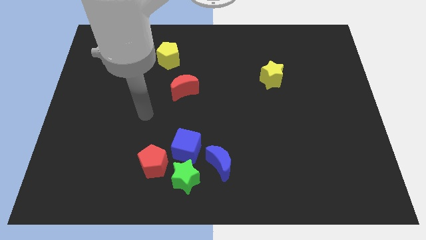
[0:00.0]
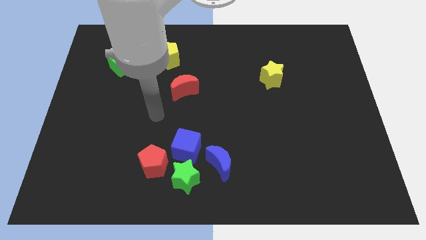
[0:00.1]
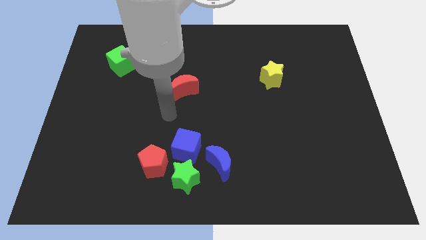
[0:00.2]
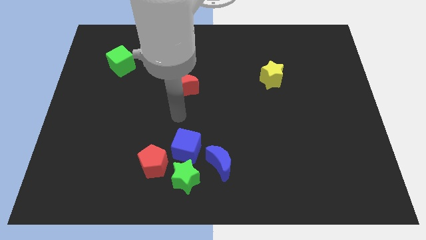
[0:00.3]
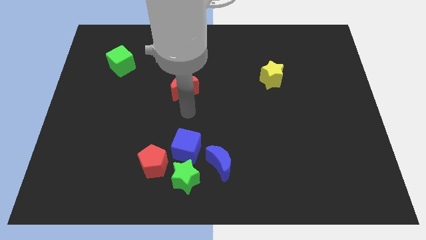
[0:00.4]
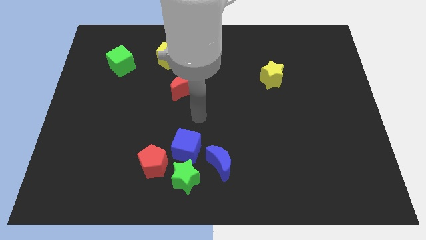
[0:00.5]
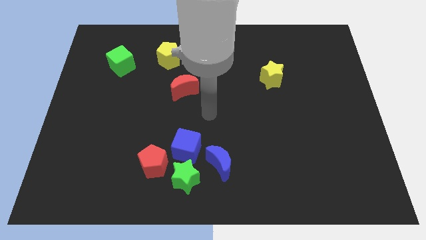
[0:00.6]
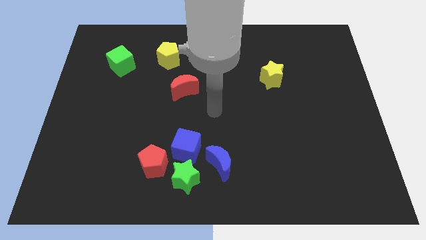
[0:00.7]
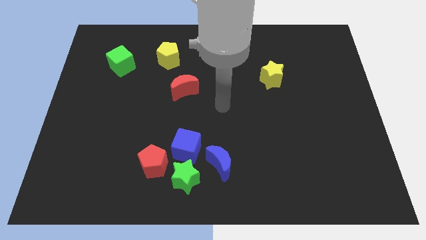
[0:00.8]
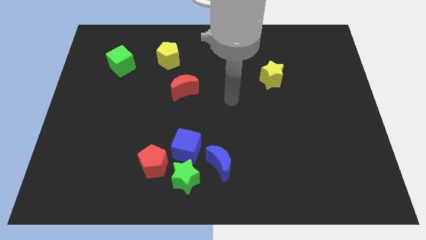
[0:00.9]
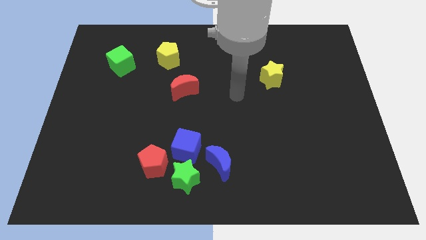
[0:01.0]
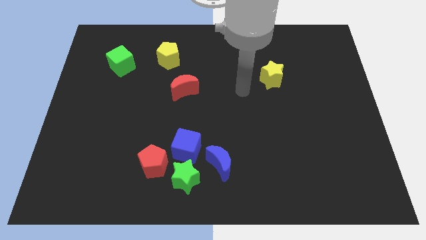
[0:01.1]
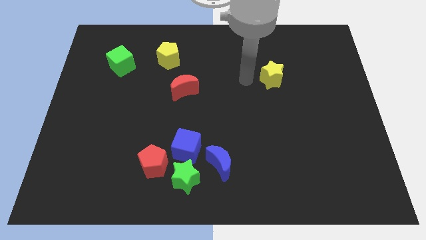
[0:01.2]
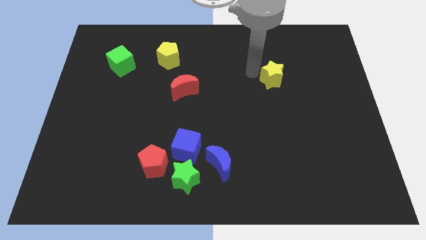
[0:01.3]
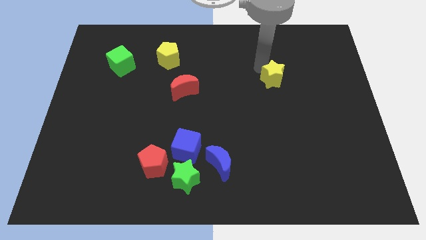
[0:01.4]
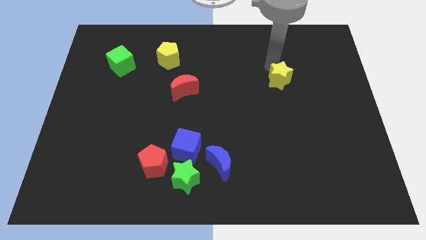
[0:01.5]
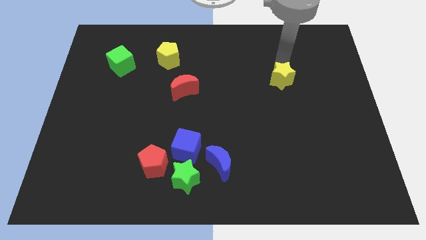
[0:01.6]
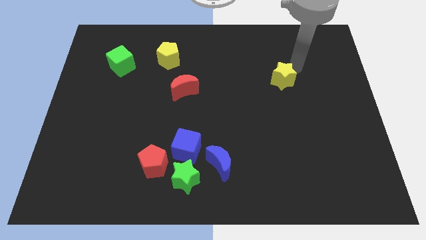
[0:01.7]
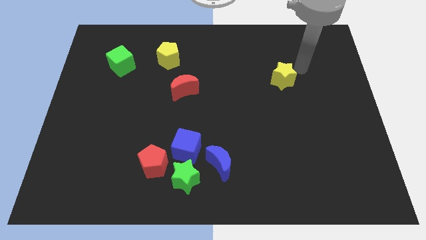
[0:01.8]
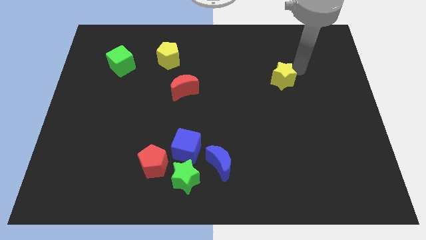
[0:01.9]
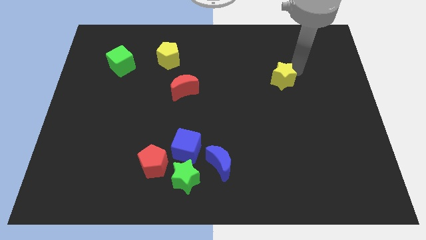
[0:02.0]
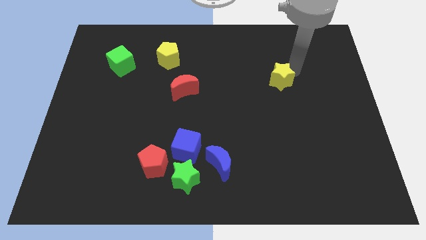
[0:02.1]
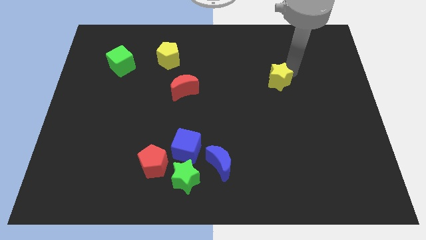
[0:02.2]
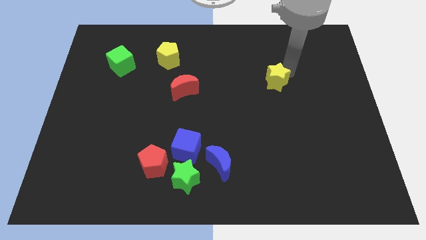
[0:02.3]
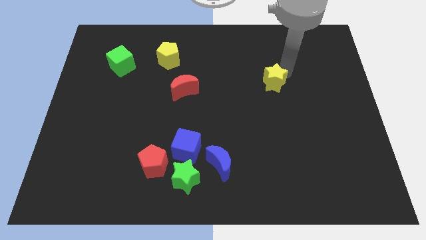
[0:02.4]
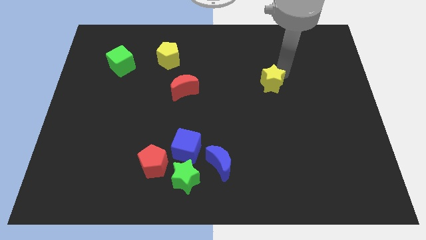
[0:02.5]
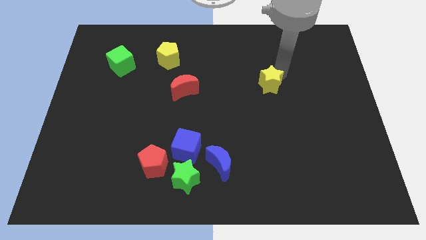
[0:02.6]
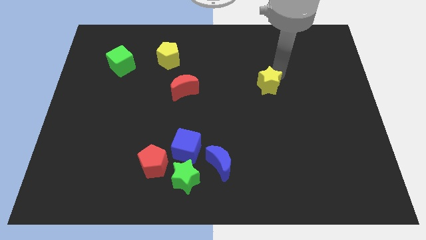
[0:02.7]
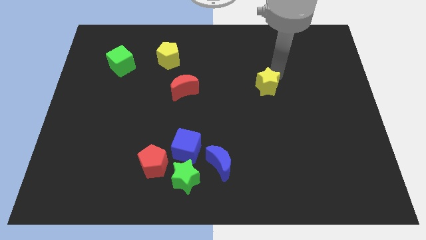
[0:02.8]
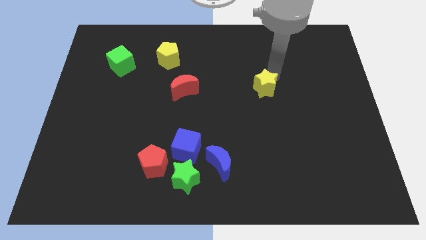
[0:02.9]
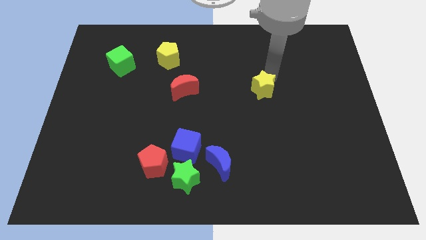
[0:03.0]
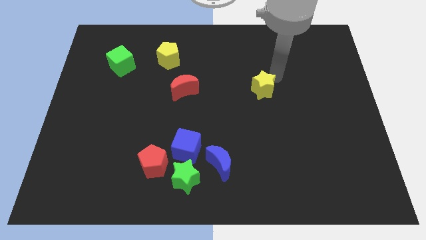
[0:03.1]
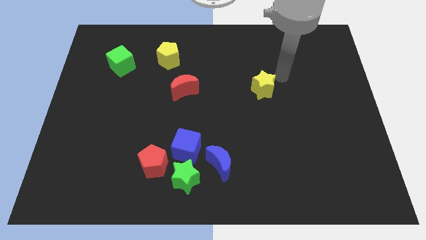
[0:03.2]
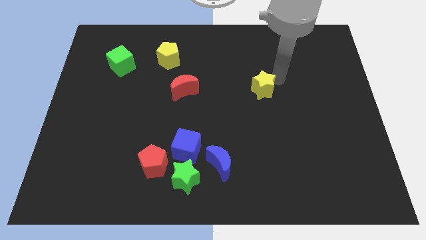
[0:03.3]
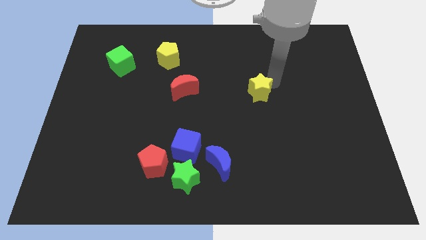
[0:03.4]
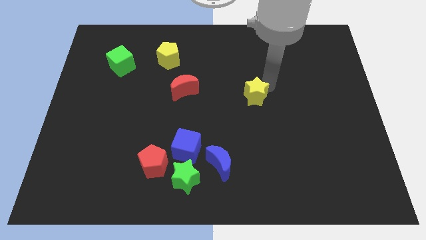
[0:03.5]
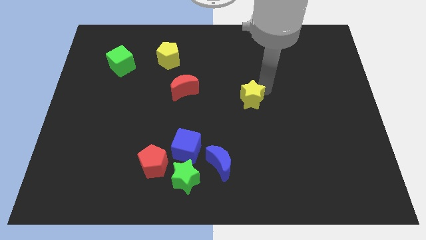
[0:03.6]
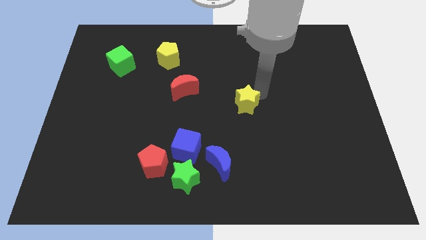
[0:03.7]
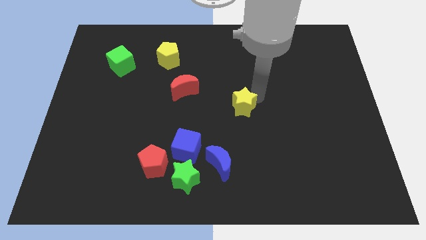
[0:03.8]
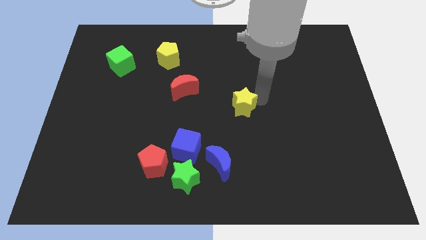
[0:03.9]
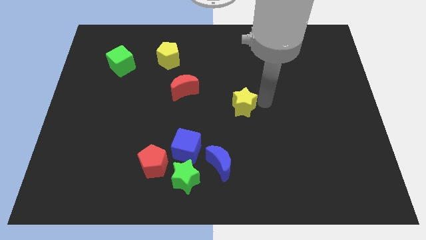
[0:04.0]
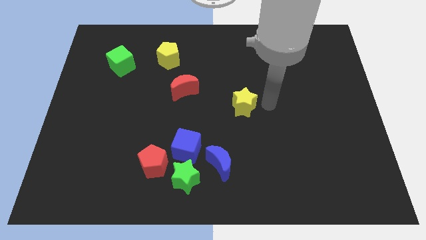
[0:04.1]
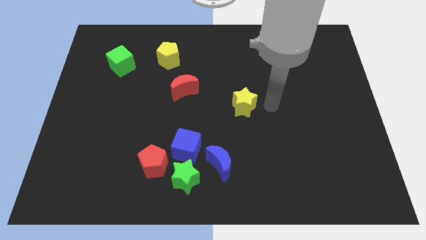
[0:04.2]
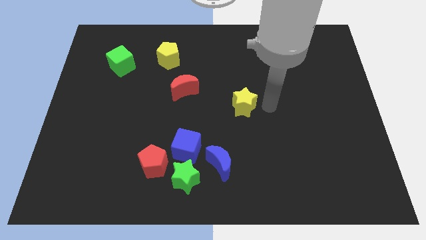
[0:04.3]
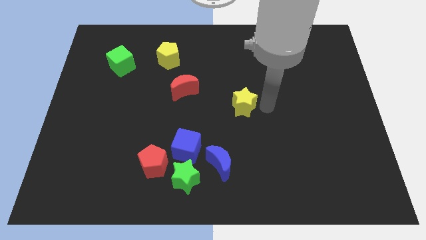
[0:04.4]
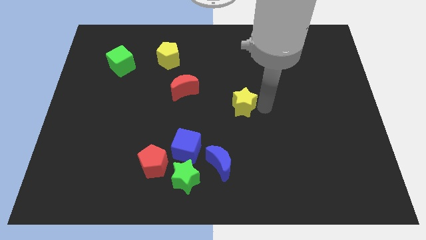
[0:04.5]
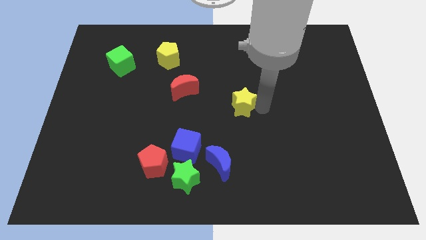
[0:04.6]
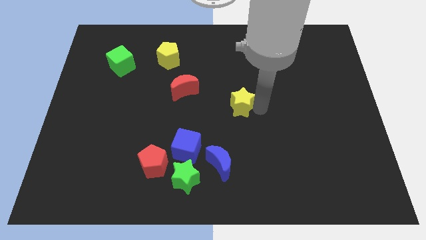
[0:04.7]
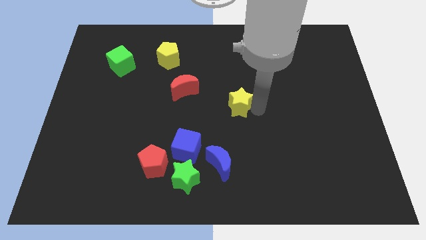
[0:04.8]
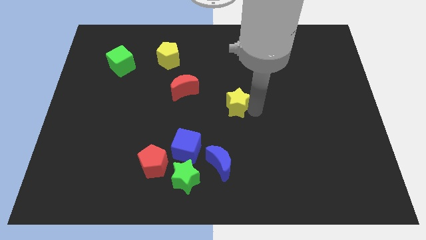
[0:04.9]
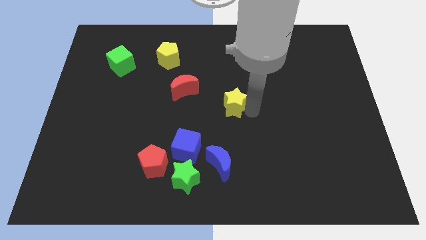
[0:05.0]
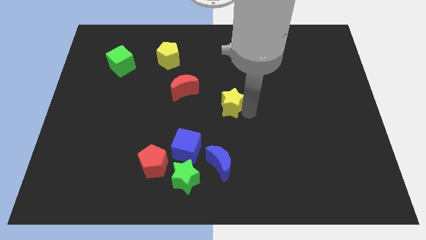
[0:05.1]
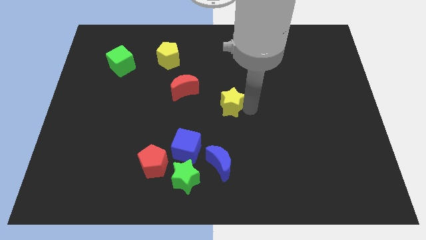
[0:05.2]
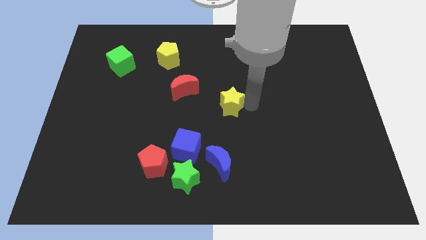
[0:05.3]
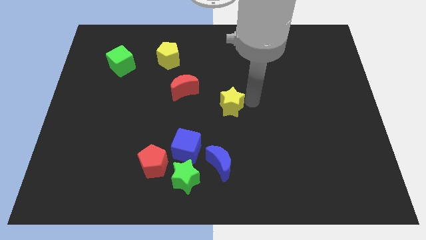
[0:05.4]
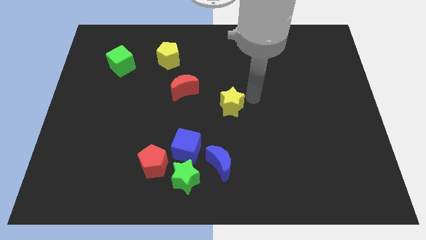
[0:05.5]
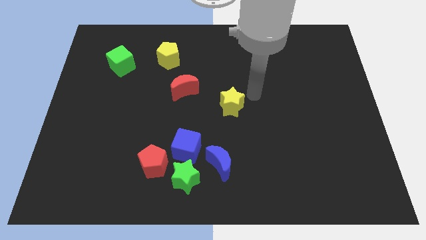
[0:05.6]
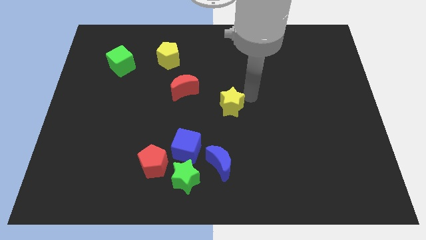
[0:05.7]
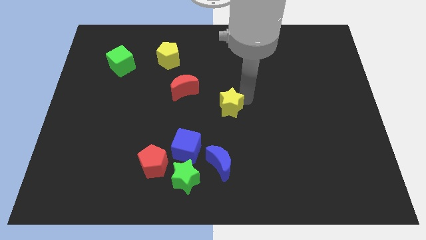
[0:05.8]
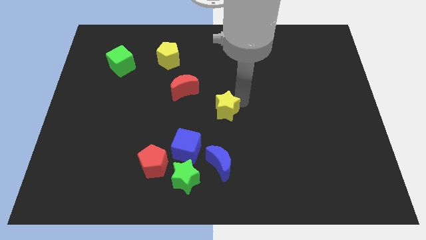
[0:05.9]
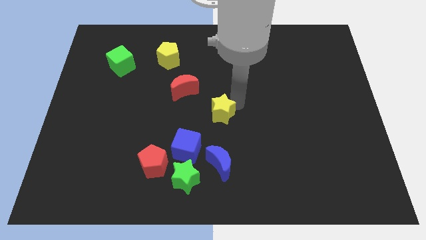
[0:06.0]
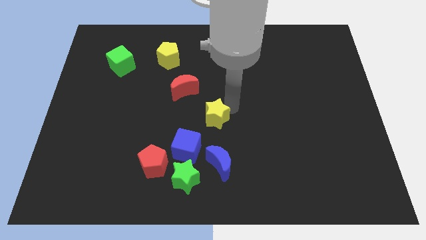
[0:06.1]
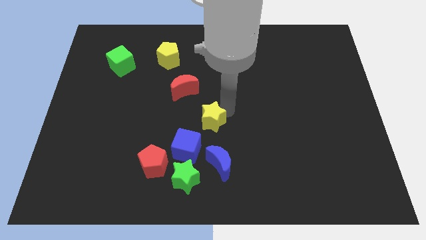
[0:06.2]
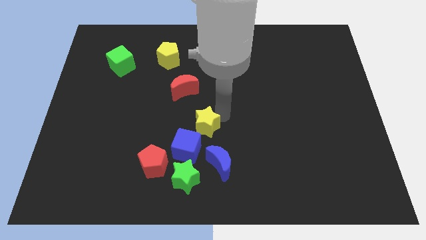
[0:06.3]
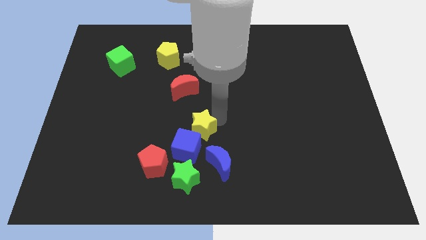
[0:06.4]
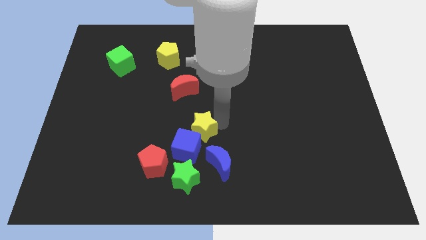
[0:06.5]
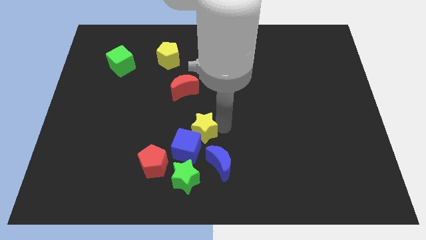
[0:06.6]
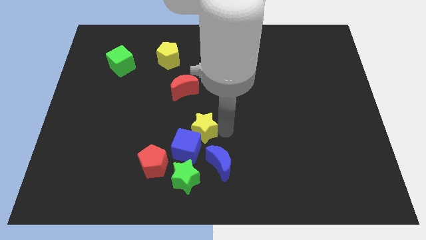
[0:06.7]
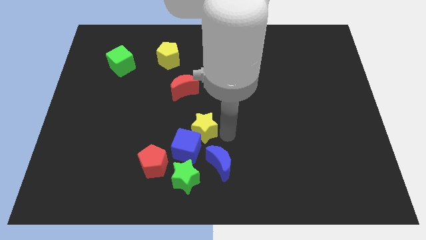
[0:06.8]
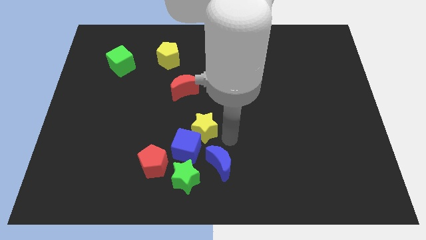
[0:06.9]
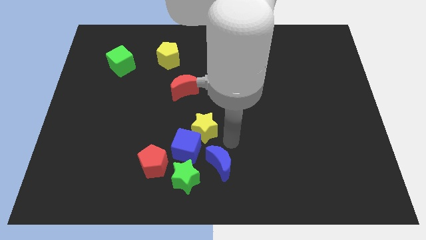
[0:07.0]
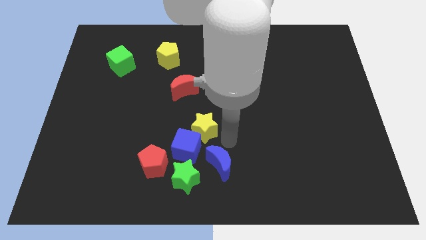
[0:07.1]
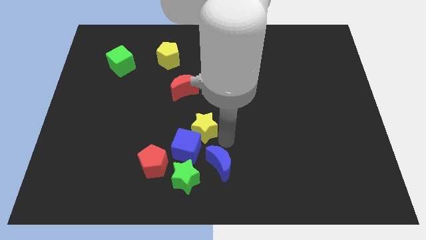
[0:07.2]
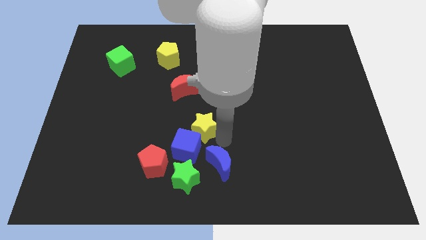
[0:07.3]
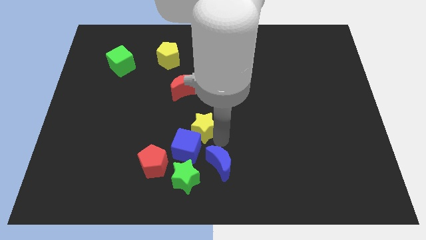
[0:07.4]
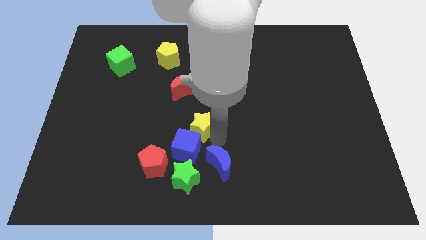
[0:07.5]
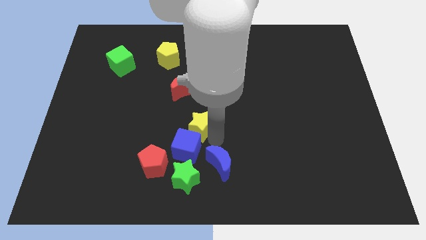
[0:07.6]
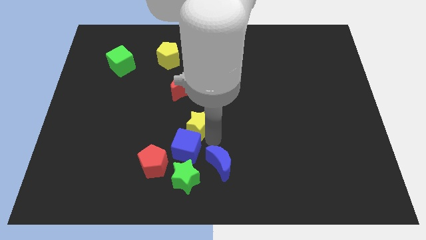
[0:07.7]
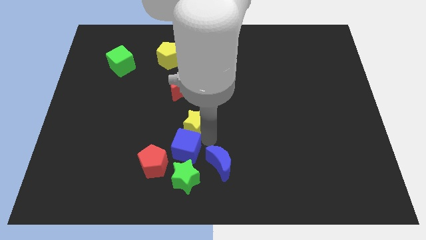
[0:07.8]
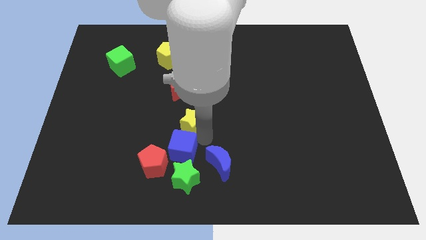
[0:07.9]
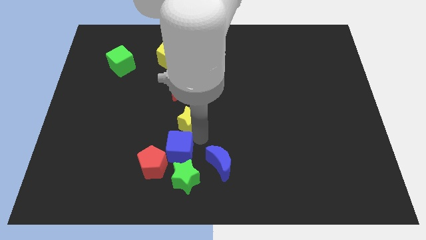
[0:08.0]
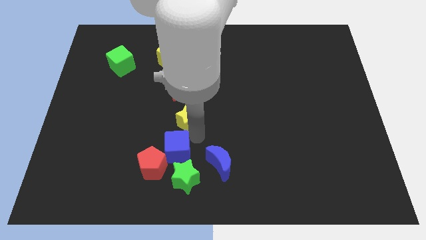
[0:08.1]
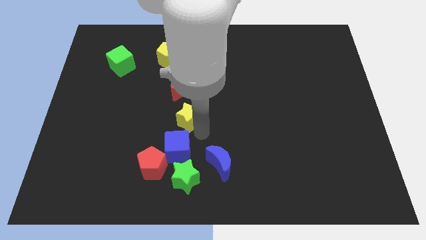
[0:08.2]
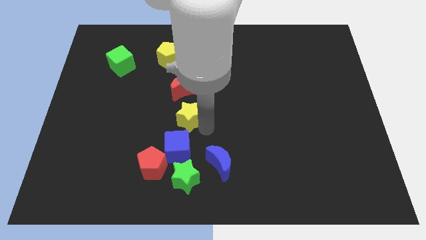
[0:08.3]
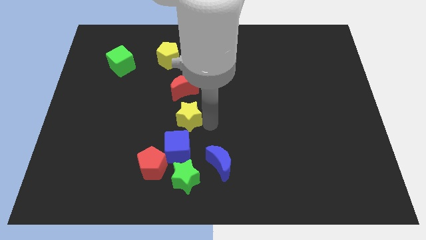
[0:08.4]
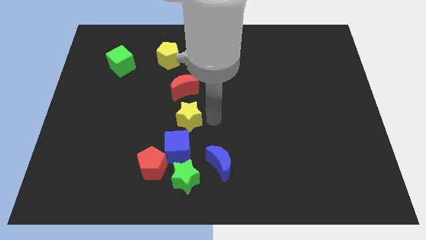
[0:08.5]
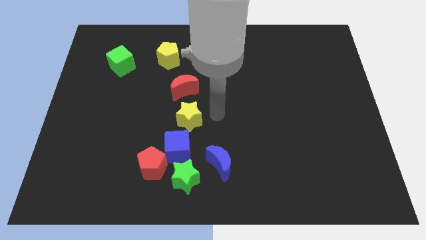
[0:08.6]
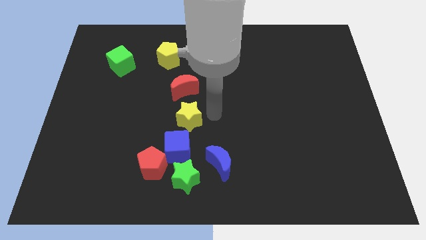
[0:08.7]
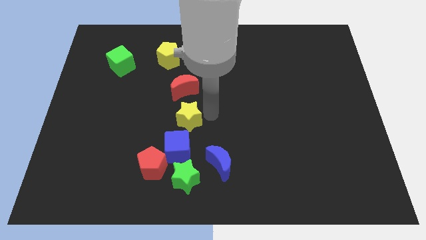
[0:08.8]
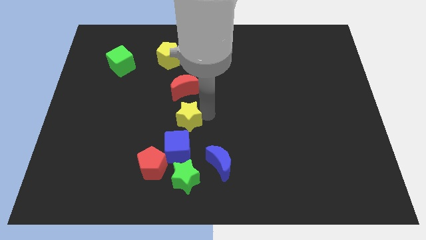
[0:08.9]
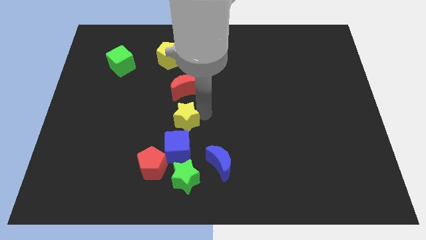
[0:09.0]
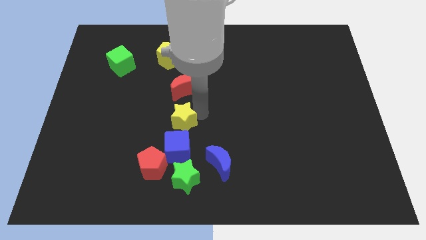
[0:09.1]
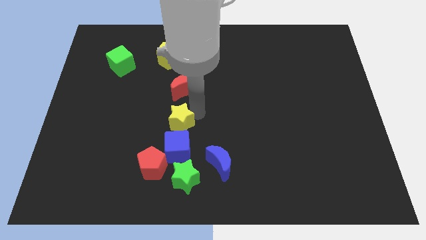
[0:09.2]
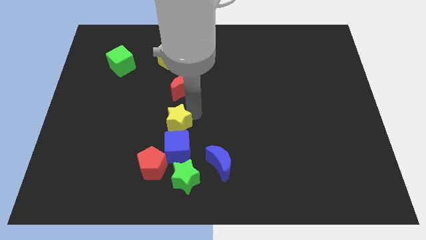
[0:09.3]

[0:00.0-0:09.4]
put the yellow star to the top of the red pentagon
